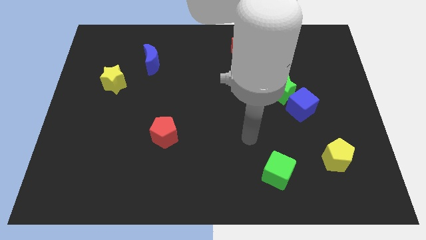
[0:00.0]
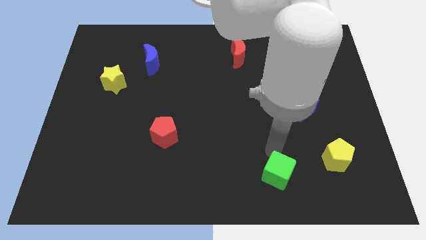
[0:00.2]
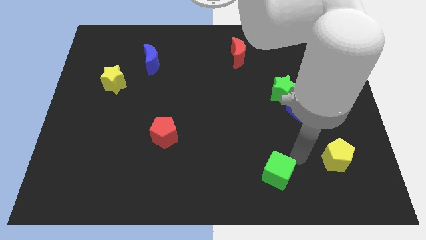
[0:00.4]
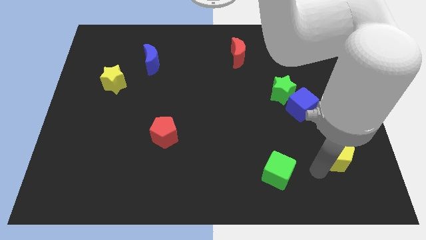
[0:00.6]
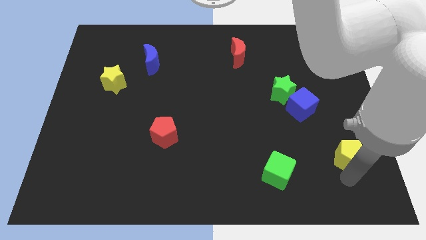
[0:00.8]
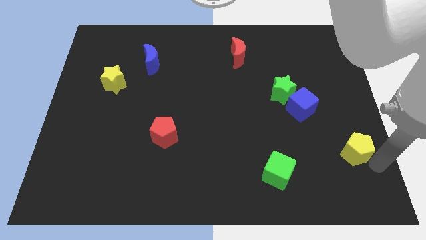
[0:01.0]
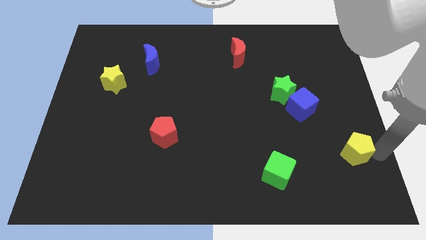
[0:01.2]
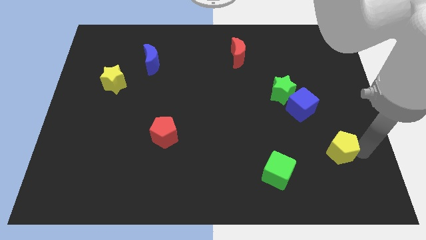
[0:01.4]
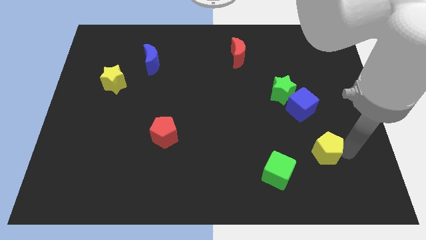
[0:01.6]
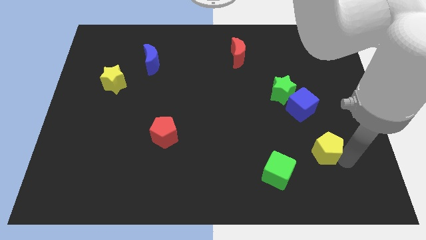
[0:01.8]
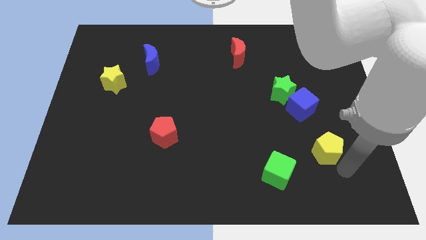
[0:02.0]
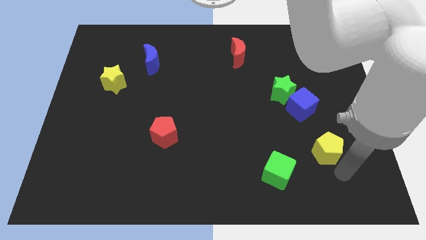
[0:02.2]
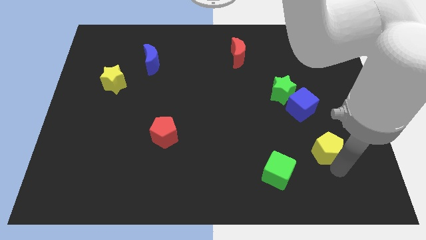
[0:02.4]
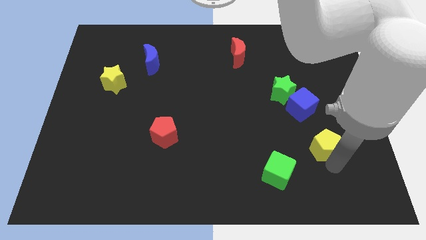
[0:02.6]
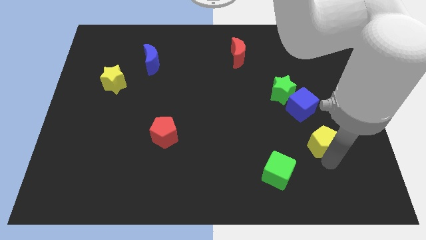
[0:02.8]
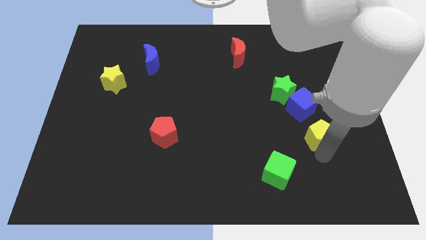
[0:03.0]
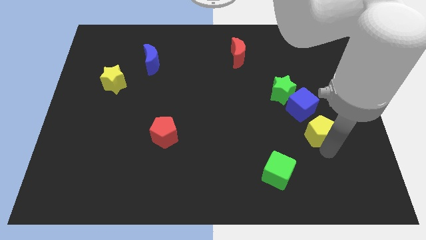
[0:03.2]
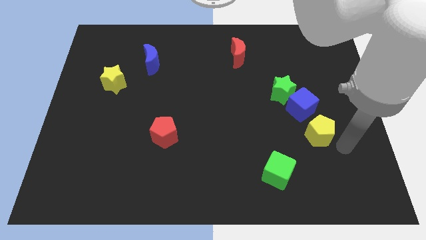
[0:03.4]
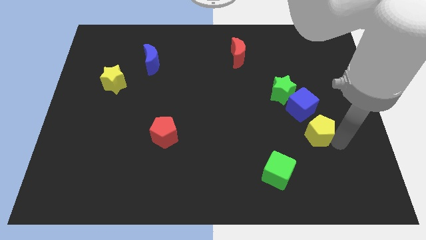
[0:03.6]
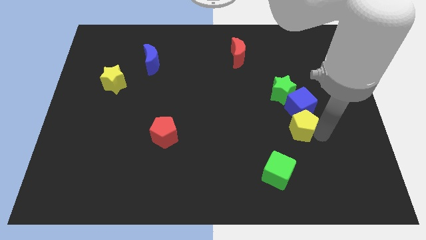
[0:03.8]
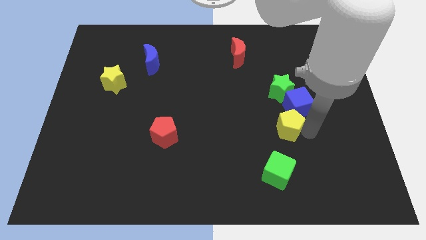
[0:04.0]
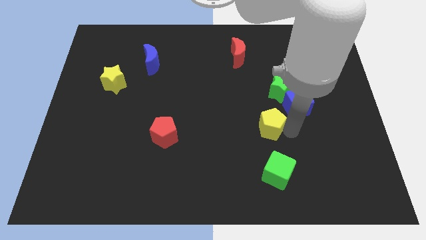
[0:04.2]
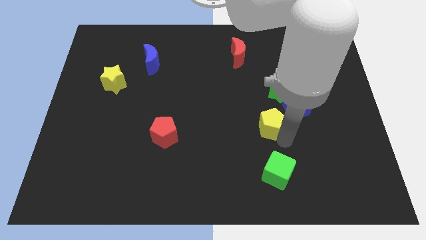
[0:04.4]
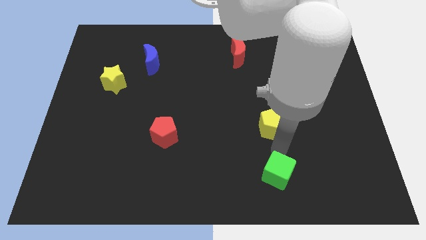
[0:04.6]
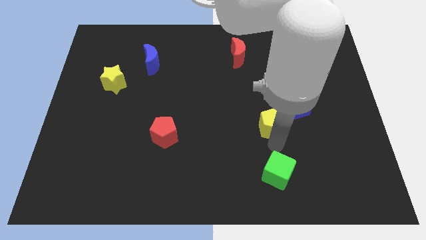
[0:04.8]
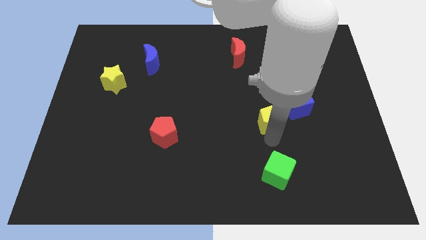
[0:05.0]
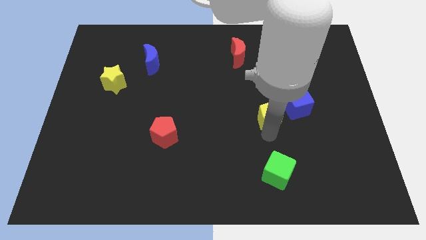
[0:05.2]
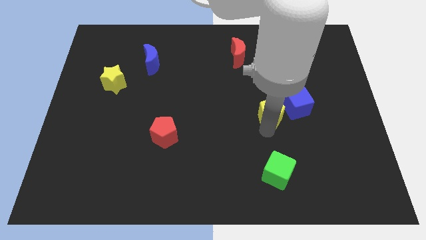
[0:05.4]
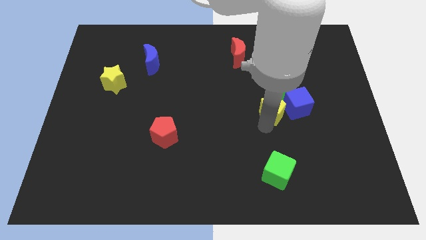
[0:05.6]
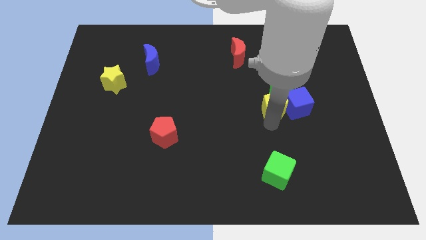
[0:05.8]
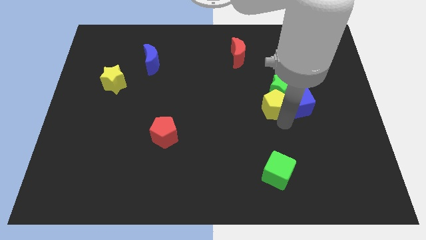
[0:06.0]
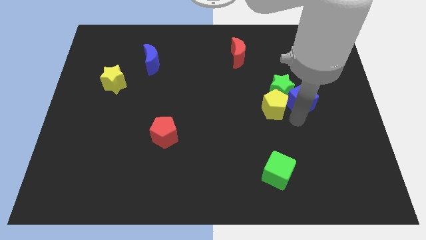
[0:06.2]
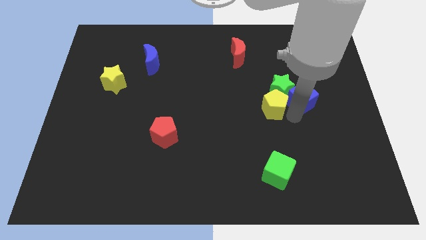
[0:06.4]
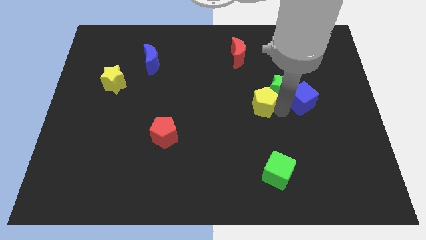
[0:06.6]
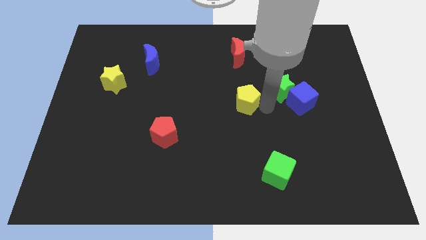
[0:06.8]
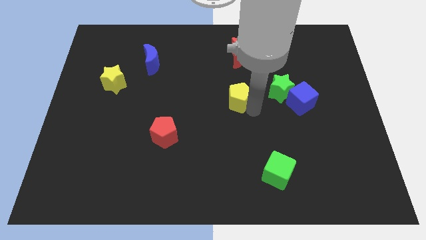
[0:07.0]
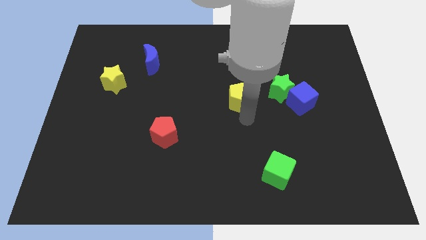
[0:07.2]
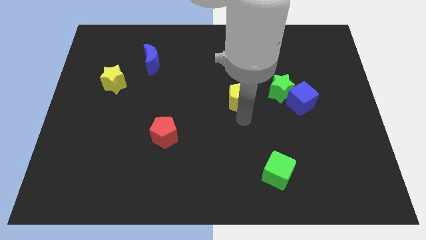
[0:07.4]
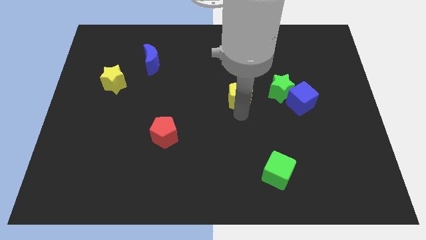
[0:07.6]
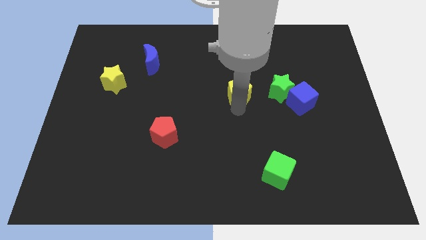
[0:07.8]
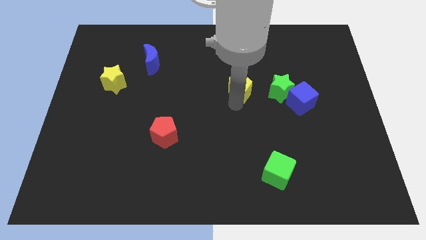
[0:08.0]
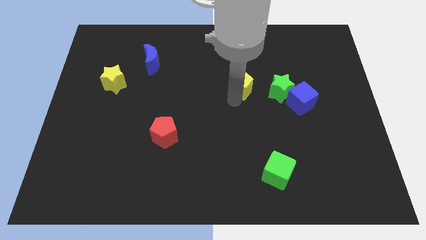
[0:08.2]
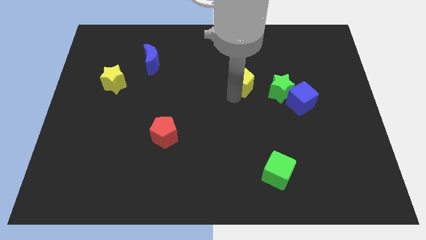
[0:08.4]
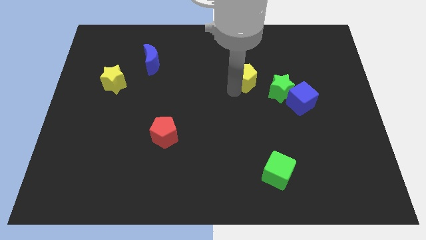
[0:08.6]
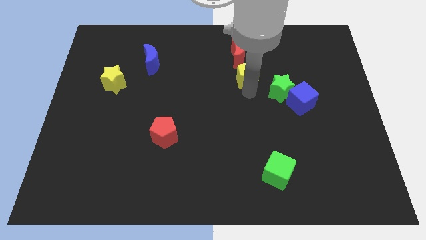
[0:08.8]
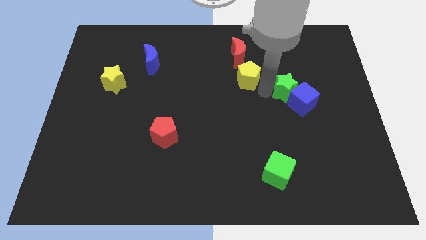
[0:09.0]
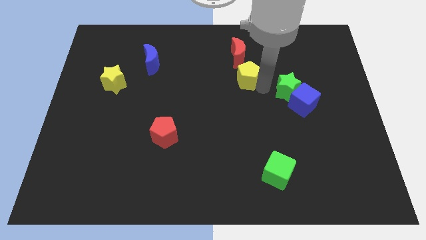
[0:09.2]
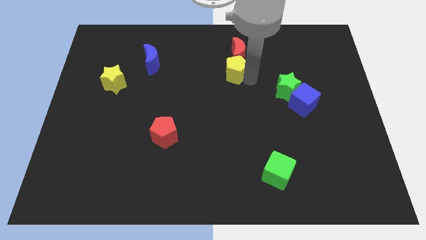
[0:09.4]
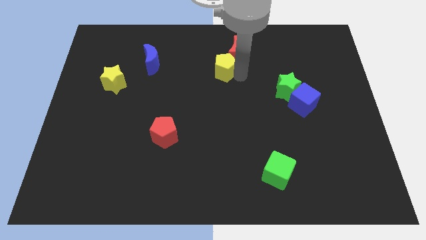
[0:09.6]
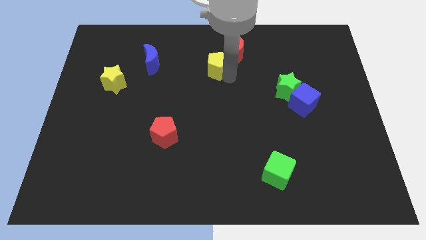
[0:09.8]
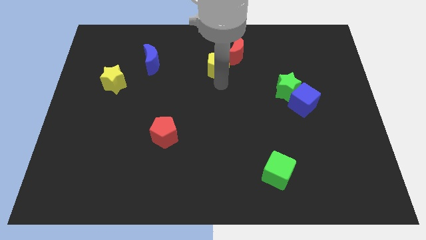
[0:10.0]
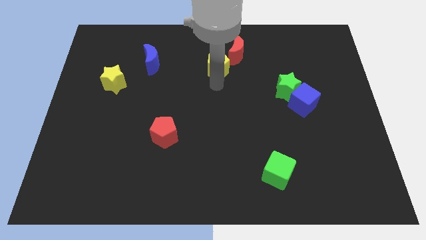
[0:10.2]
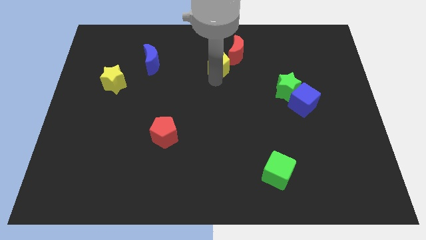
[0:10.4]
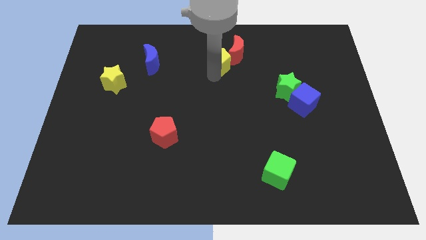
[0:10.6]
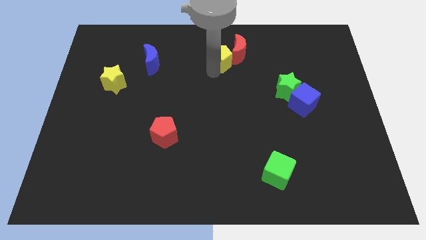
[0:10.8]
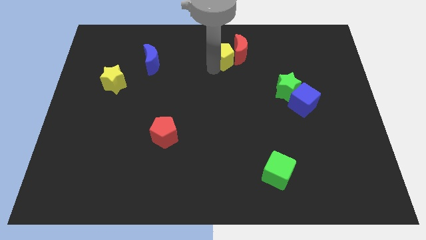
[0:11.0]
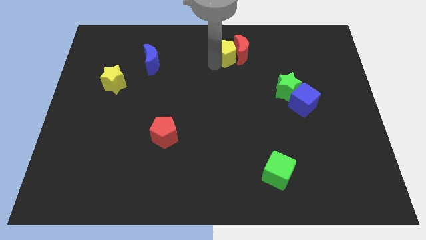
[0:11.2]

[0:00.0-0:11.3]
slide the yellow pentagon to the top side

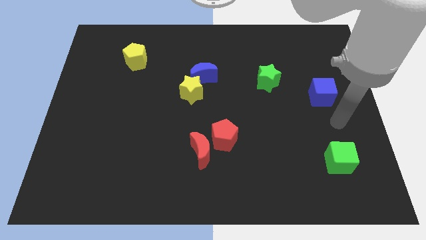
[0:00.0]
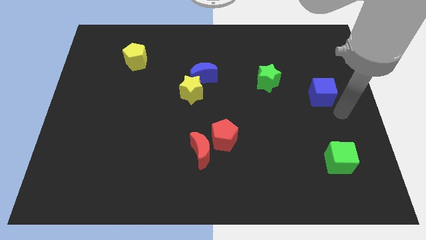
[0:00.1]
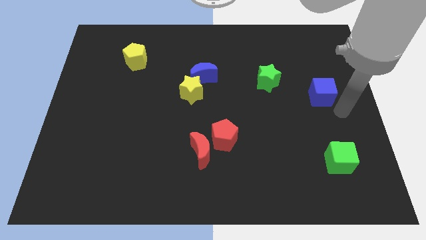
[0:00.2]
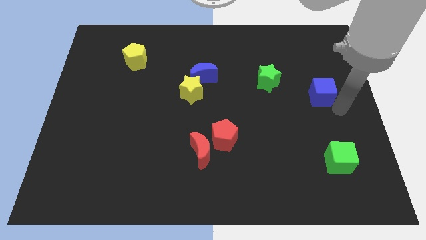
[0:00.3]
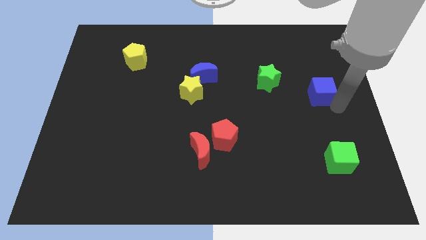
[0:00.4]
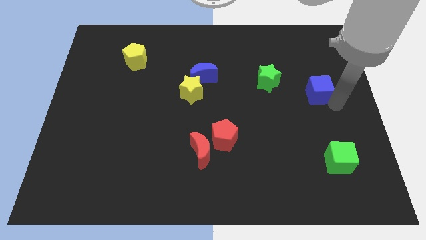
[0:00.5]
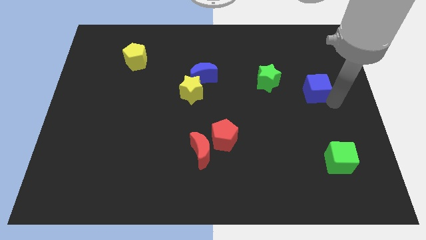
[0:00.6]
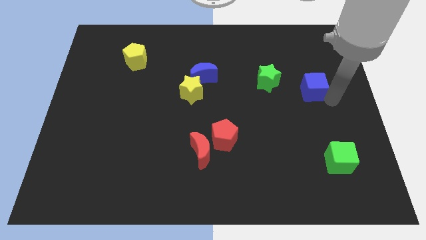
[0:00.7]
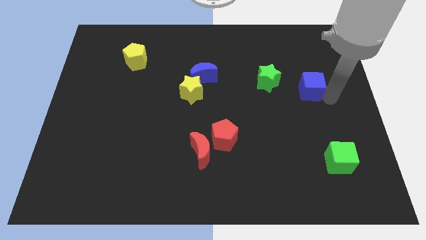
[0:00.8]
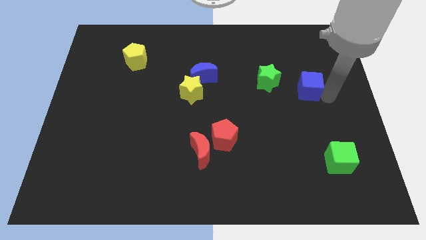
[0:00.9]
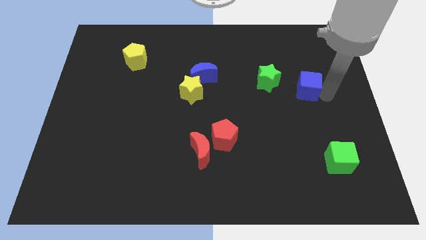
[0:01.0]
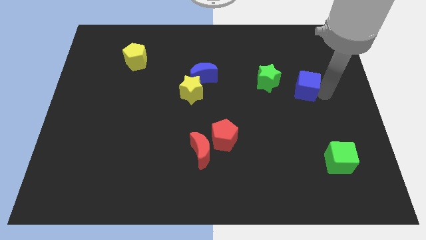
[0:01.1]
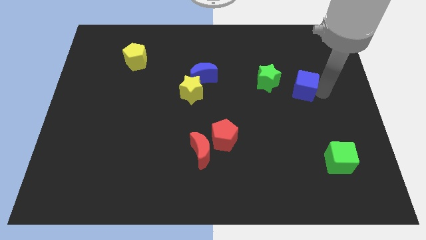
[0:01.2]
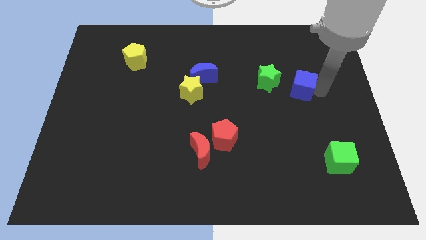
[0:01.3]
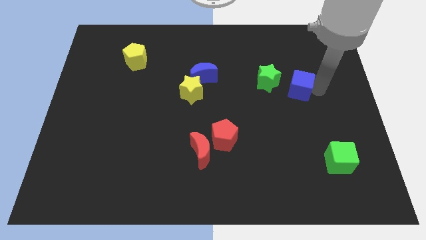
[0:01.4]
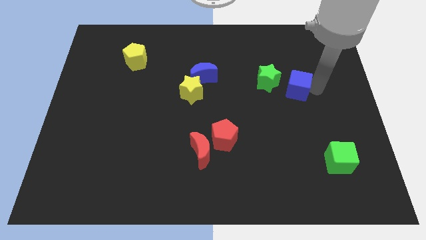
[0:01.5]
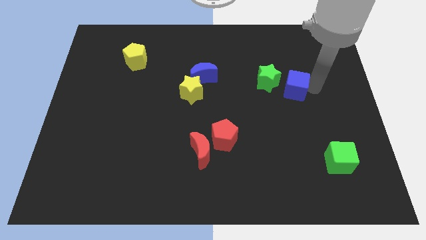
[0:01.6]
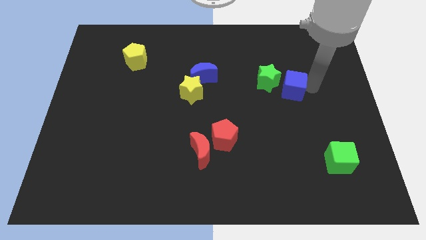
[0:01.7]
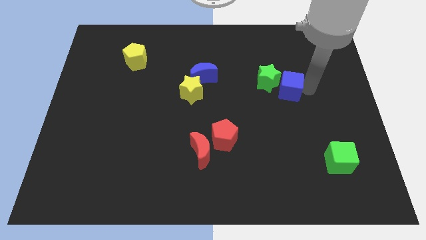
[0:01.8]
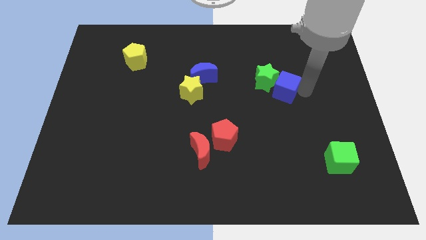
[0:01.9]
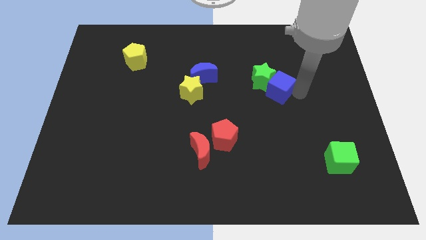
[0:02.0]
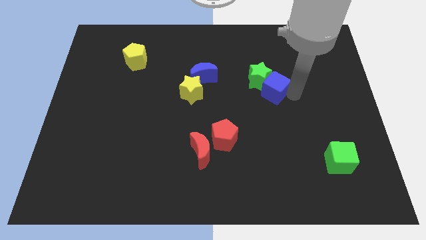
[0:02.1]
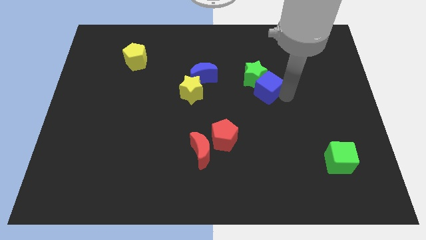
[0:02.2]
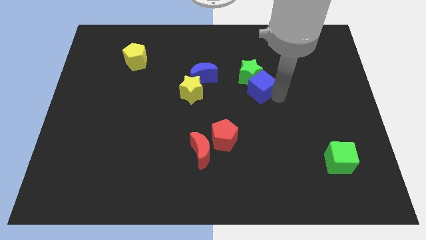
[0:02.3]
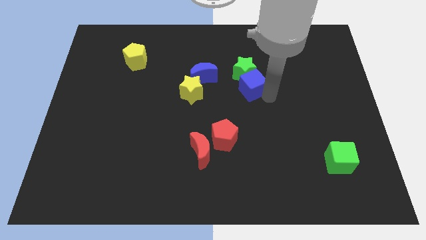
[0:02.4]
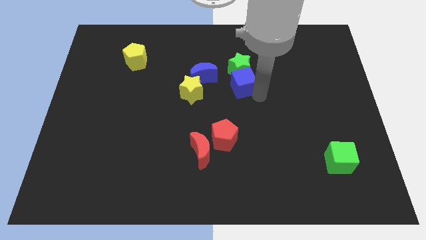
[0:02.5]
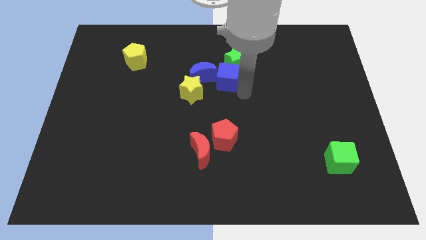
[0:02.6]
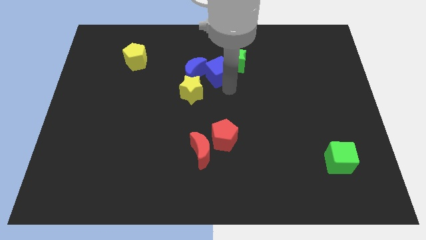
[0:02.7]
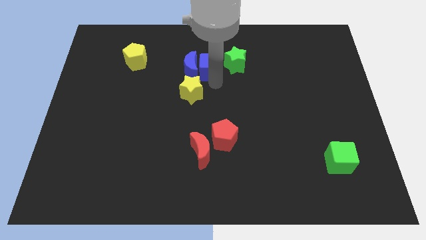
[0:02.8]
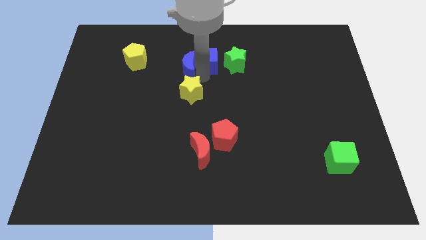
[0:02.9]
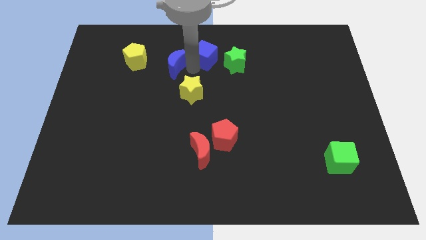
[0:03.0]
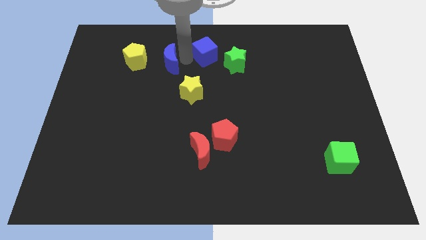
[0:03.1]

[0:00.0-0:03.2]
move the blue cube to the towards your base
